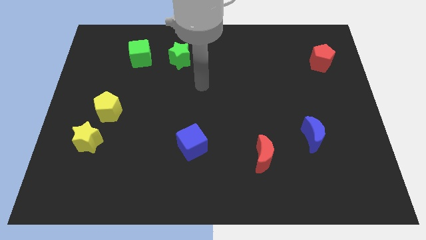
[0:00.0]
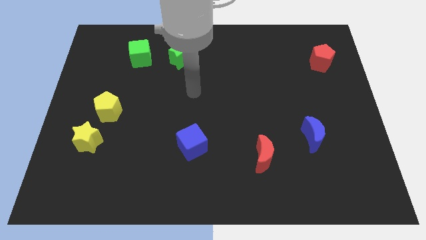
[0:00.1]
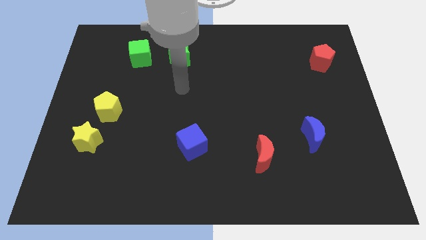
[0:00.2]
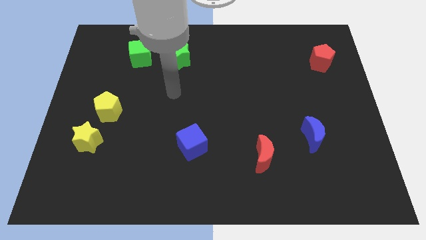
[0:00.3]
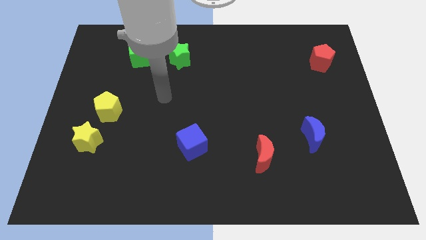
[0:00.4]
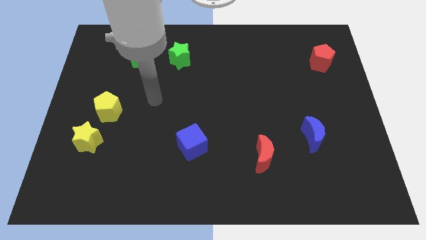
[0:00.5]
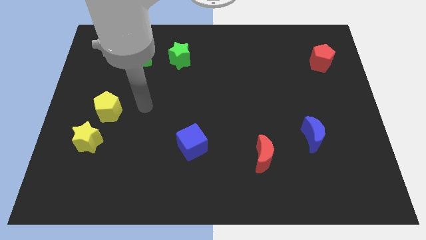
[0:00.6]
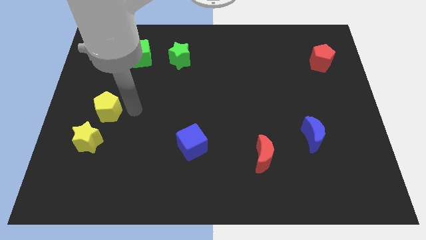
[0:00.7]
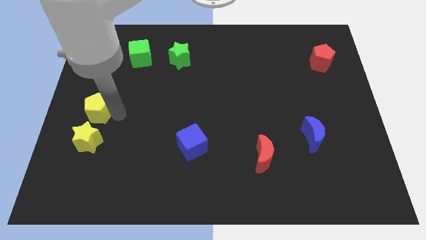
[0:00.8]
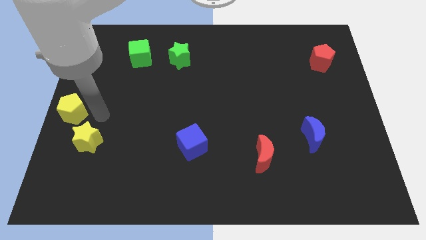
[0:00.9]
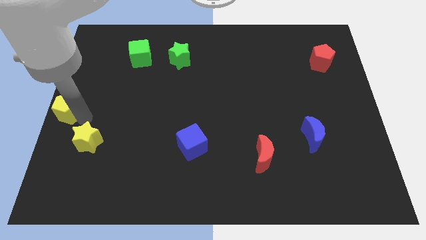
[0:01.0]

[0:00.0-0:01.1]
separate the yellow star from the yellow pentagon

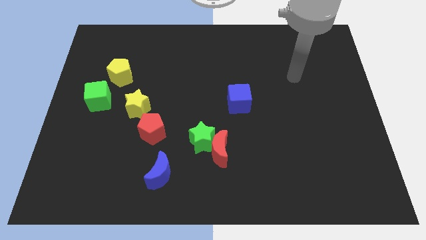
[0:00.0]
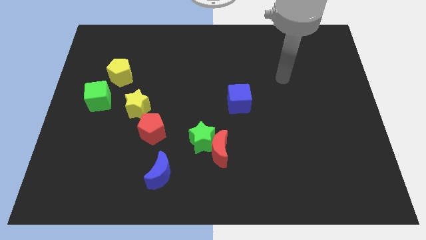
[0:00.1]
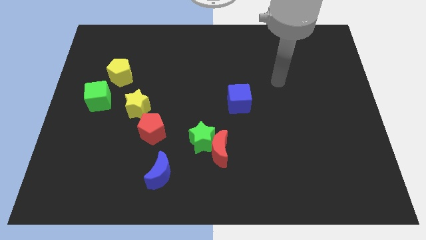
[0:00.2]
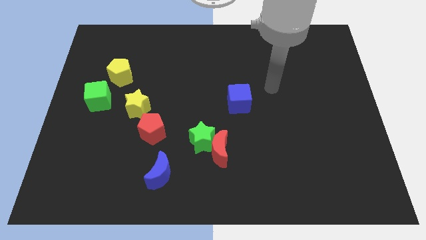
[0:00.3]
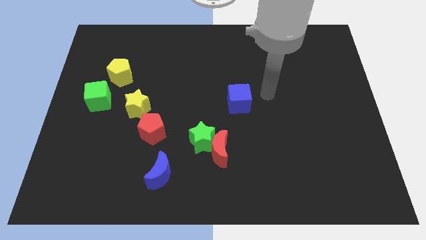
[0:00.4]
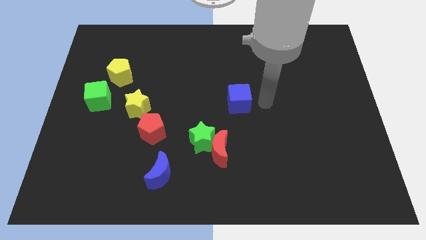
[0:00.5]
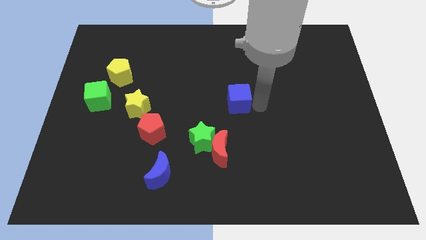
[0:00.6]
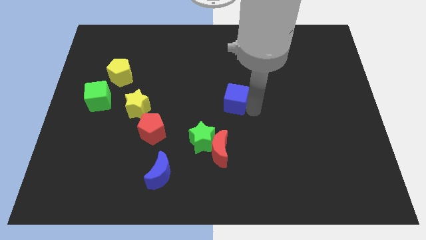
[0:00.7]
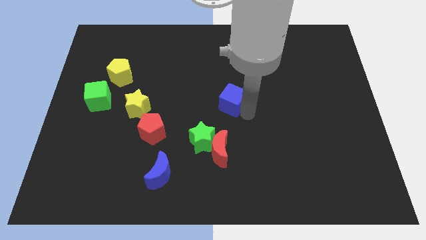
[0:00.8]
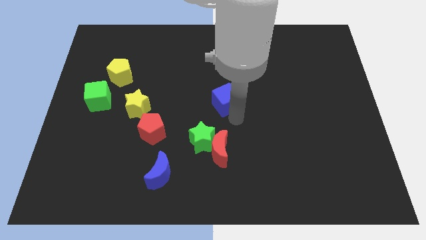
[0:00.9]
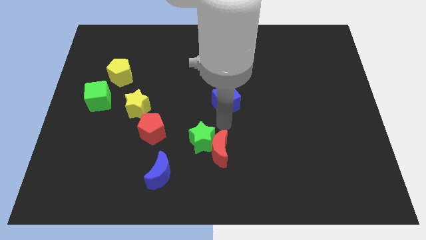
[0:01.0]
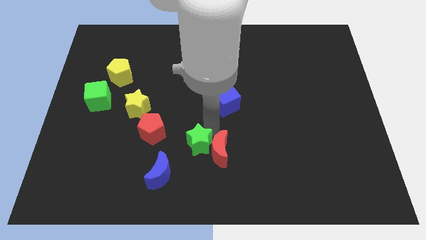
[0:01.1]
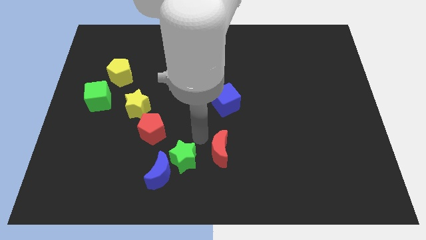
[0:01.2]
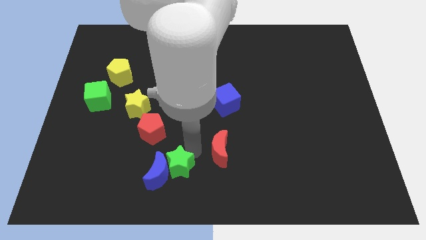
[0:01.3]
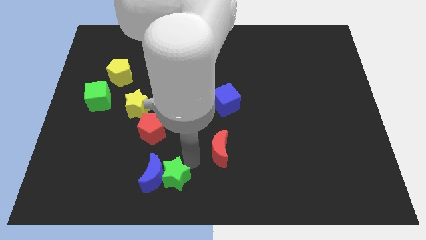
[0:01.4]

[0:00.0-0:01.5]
separate the red moon from the green star

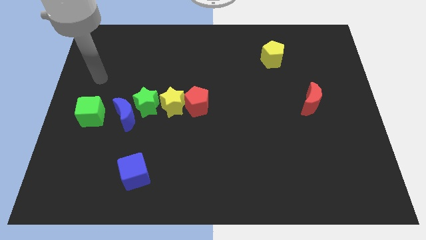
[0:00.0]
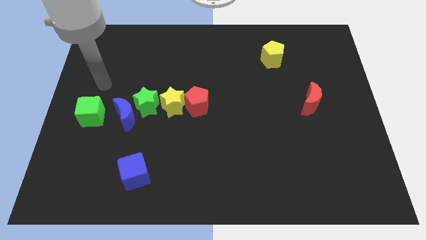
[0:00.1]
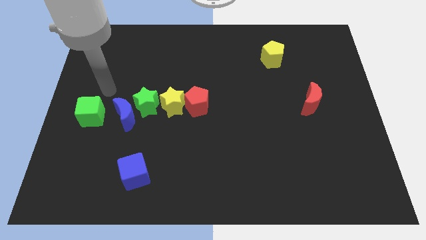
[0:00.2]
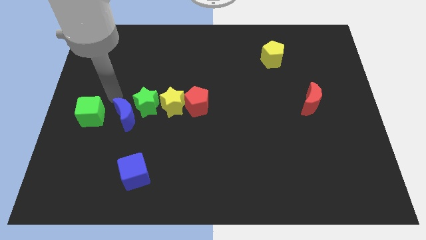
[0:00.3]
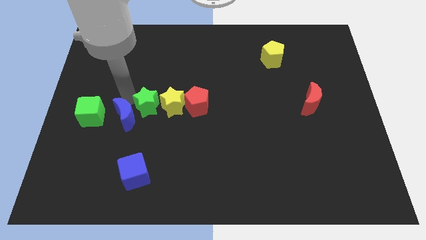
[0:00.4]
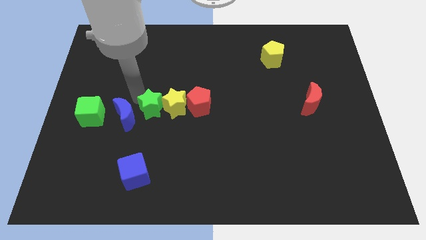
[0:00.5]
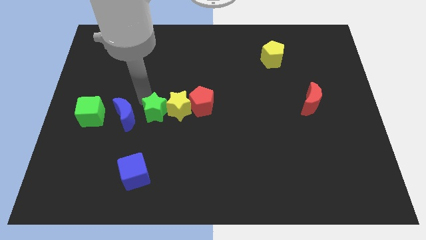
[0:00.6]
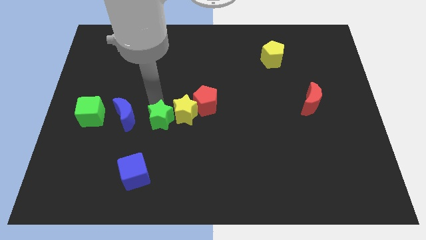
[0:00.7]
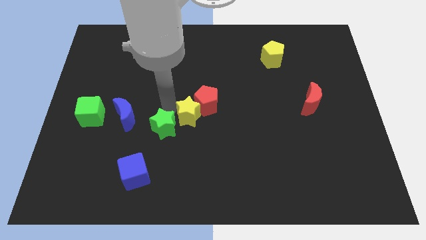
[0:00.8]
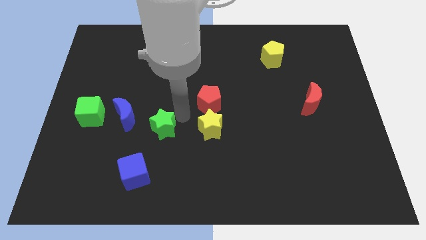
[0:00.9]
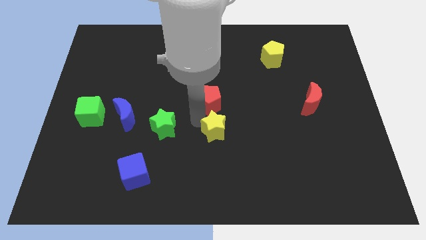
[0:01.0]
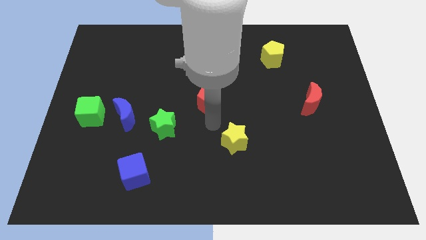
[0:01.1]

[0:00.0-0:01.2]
move the red pentagon away from the yellow star

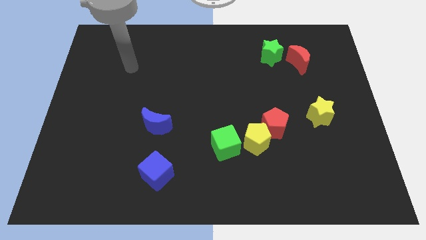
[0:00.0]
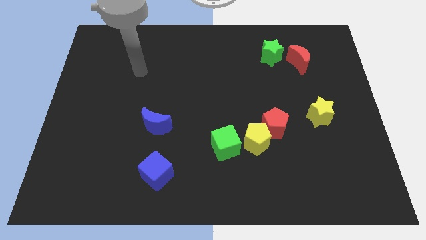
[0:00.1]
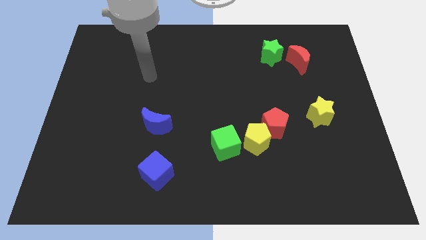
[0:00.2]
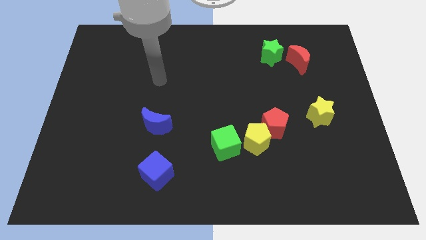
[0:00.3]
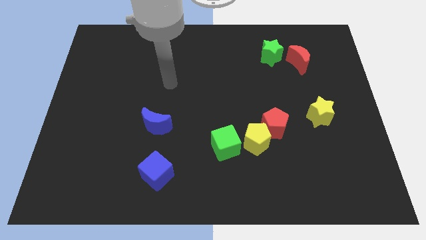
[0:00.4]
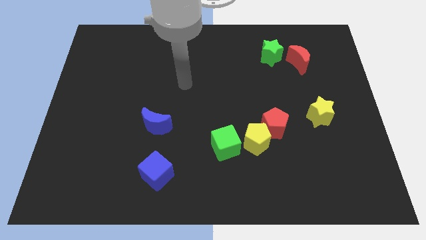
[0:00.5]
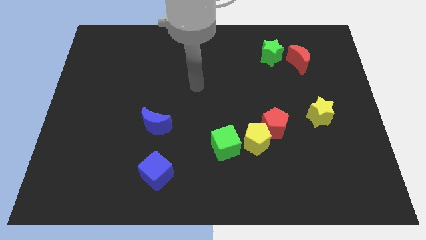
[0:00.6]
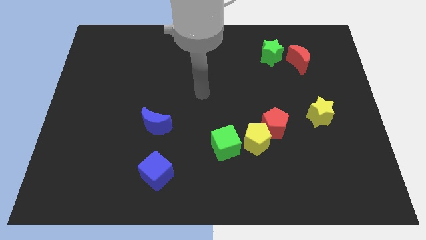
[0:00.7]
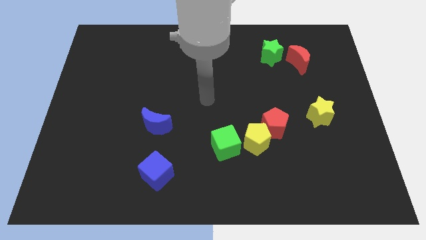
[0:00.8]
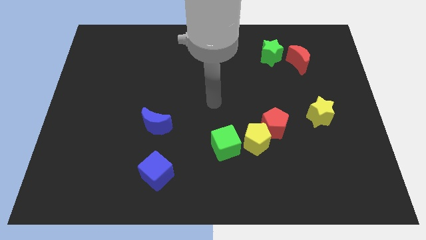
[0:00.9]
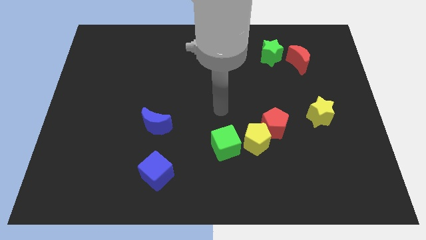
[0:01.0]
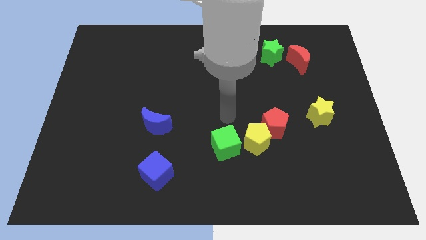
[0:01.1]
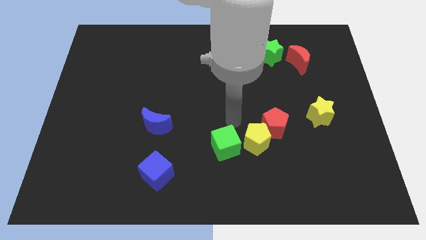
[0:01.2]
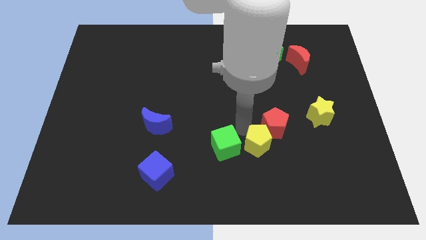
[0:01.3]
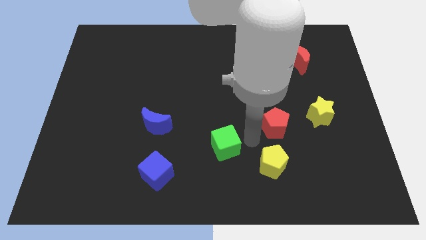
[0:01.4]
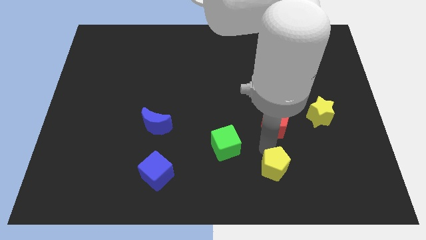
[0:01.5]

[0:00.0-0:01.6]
pull the red pentagon apart from the yellow pentagon

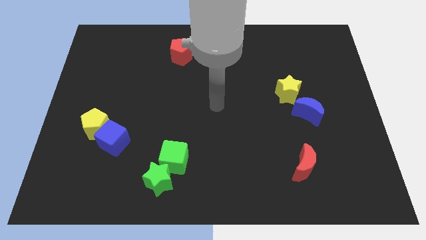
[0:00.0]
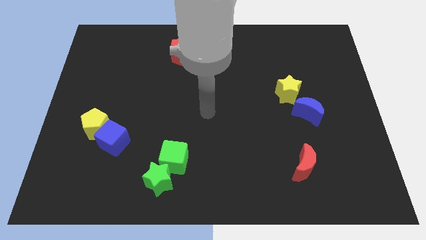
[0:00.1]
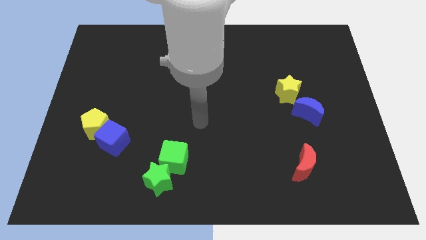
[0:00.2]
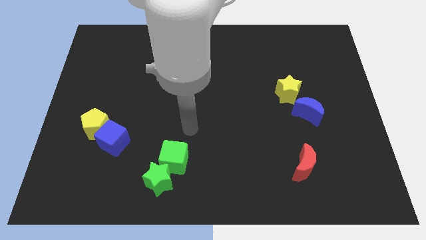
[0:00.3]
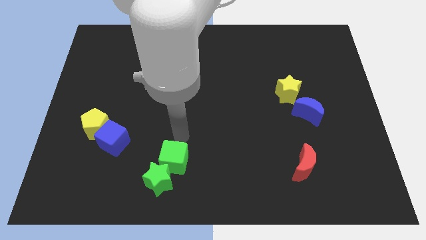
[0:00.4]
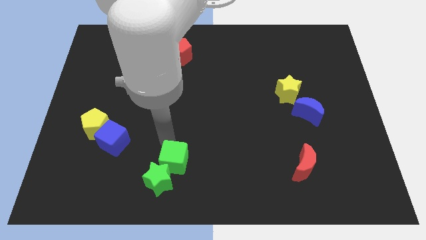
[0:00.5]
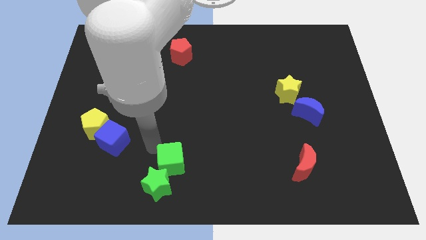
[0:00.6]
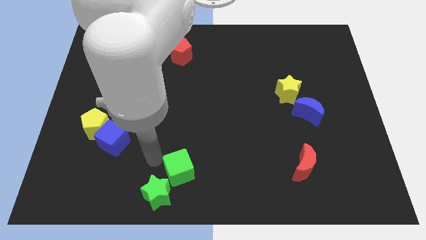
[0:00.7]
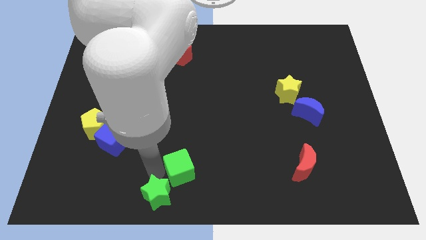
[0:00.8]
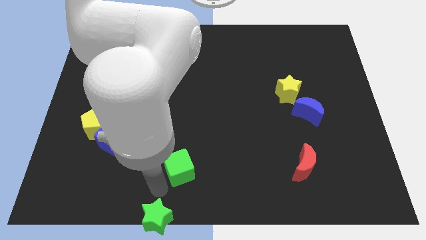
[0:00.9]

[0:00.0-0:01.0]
separate the green cube from the green star

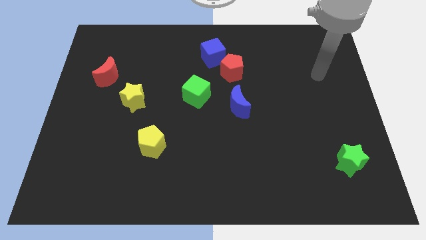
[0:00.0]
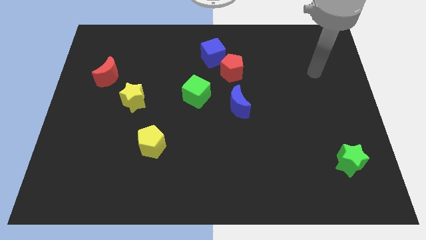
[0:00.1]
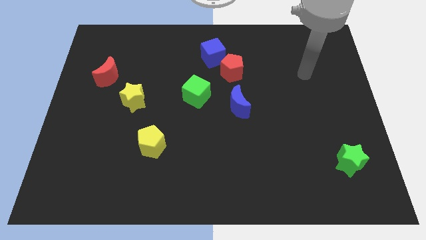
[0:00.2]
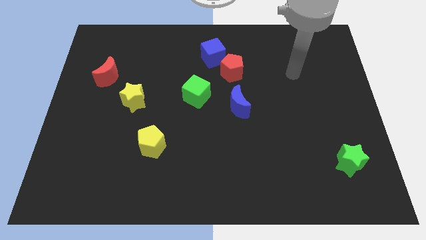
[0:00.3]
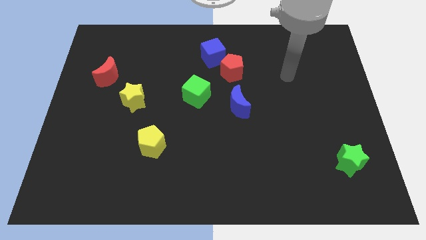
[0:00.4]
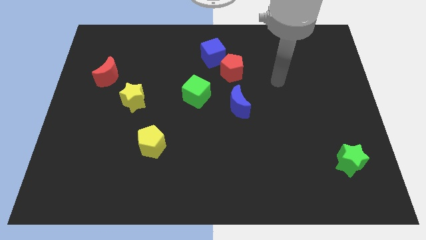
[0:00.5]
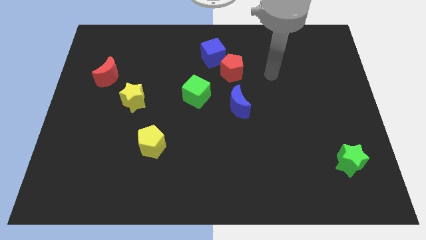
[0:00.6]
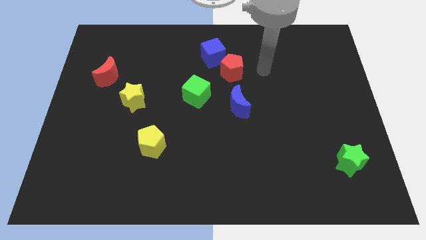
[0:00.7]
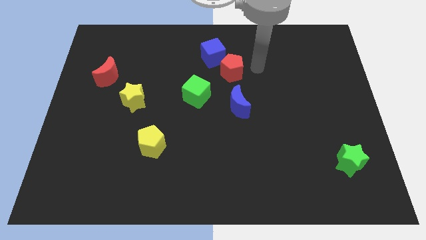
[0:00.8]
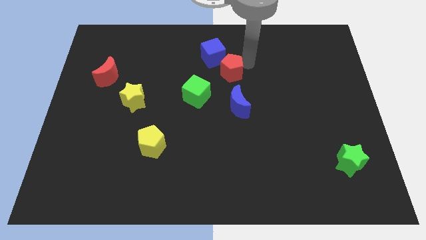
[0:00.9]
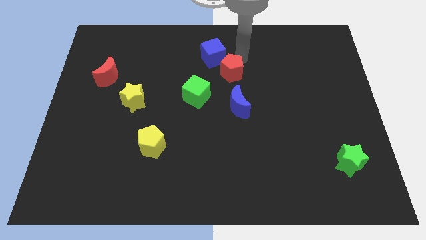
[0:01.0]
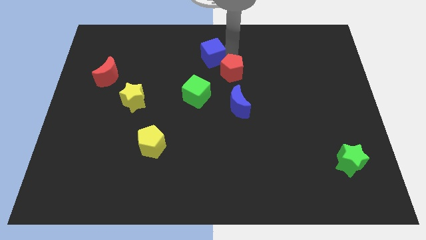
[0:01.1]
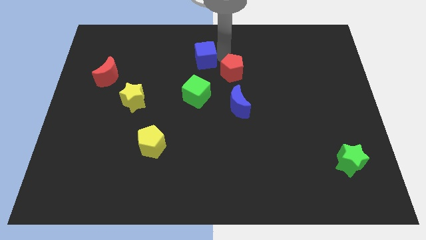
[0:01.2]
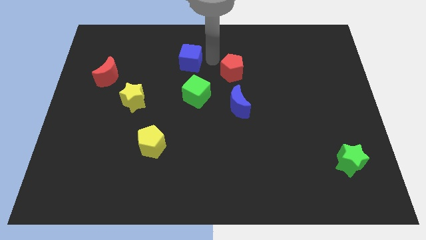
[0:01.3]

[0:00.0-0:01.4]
move the red pentagon away from the blue cube

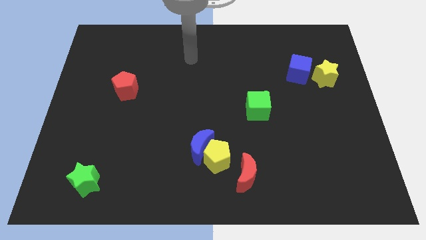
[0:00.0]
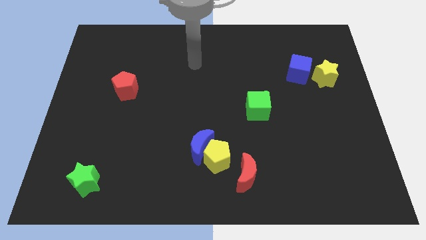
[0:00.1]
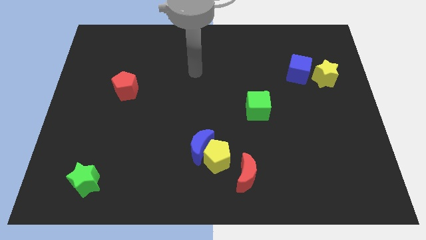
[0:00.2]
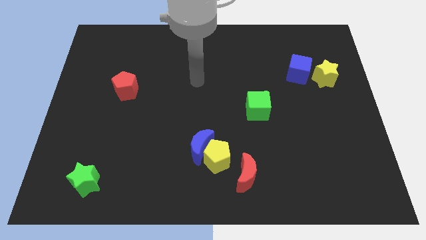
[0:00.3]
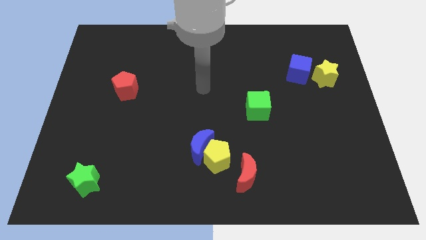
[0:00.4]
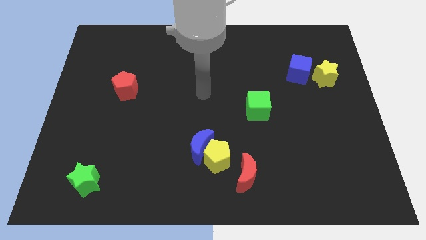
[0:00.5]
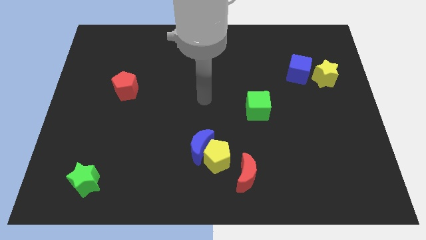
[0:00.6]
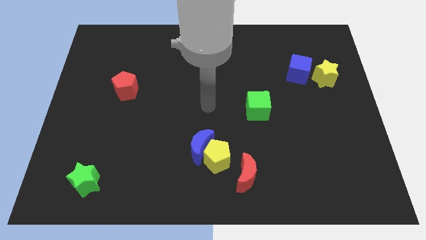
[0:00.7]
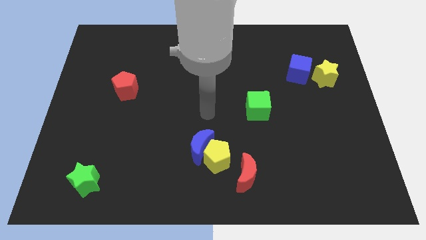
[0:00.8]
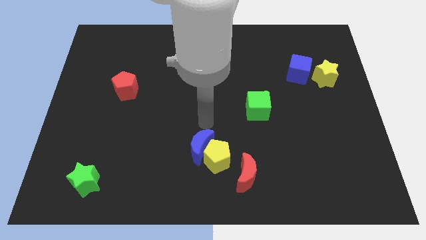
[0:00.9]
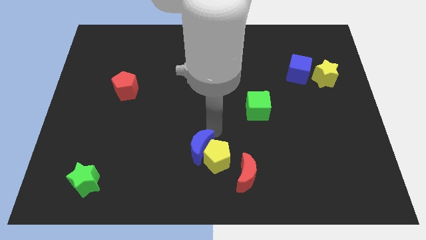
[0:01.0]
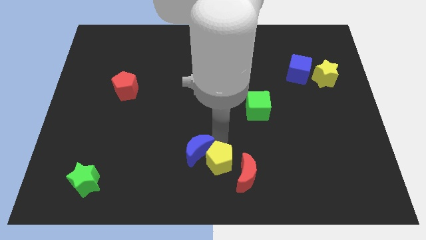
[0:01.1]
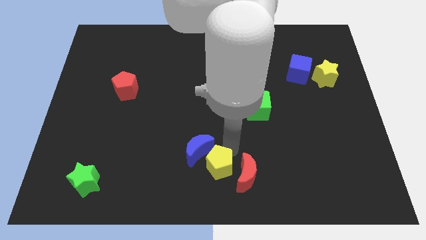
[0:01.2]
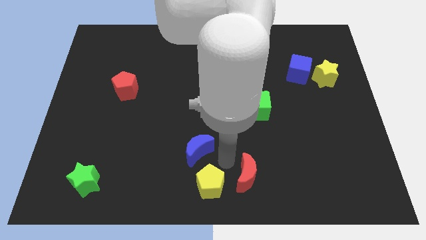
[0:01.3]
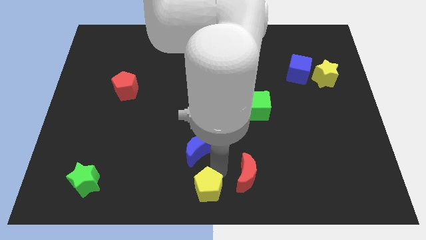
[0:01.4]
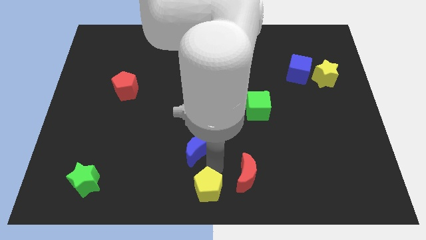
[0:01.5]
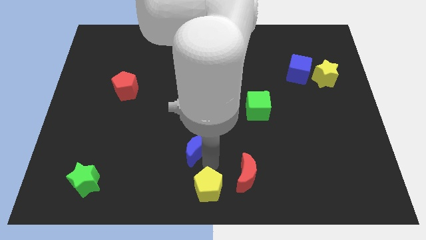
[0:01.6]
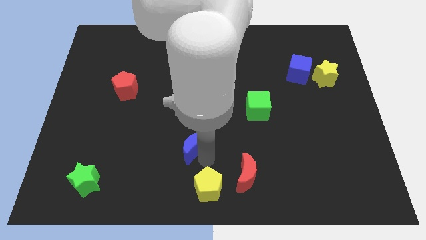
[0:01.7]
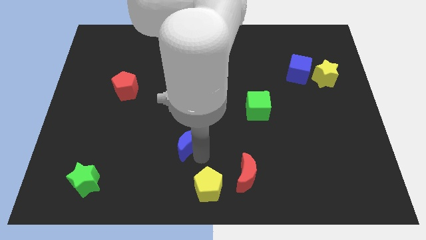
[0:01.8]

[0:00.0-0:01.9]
pull the blue moon apart from the yellow pentagon
